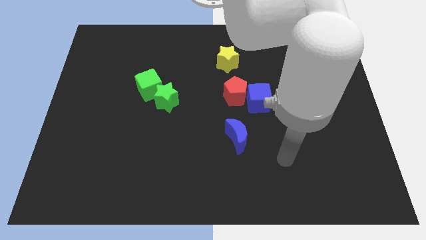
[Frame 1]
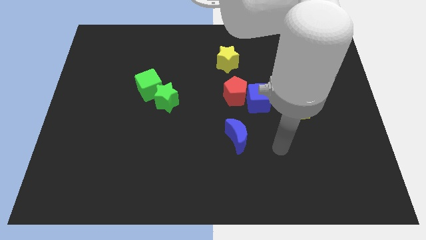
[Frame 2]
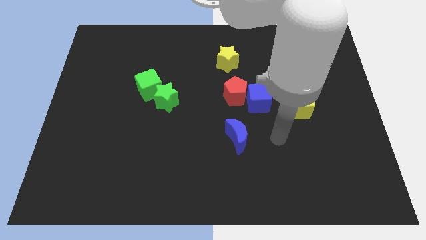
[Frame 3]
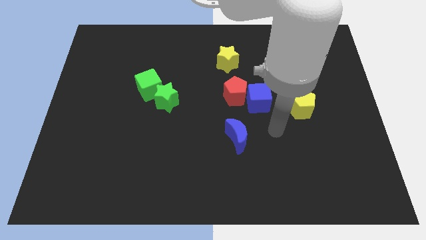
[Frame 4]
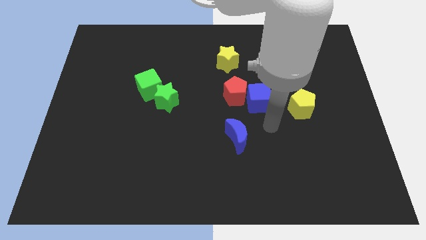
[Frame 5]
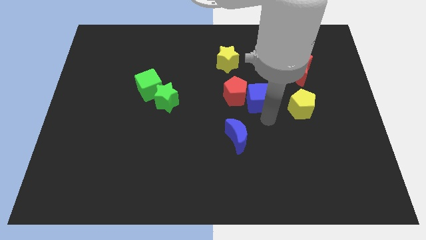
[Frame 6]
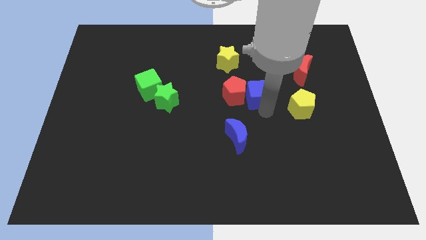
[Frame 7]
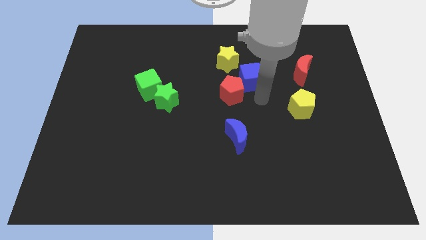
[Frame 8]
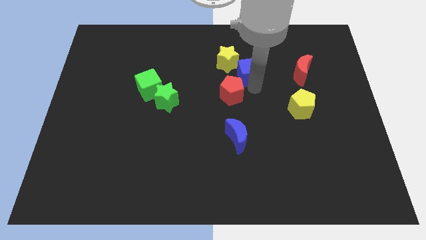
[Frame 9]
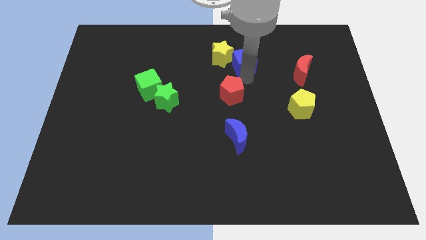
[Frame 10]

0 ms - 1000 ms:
pull the red pentagon apart from the blue cube

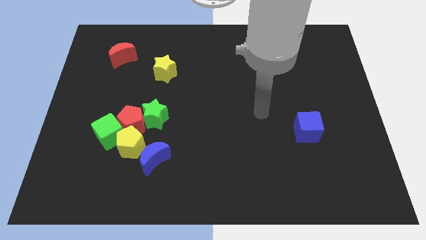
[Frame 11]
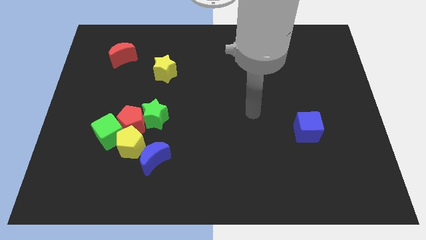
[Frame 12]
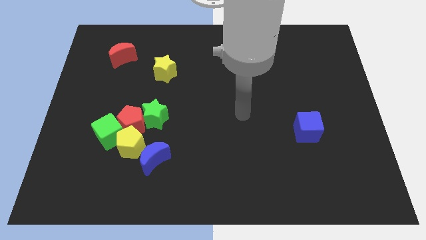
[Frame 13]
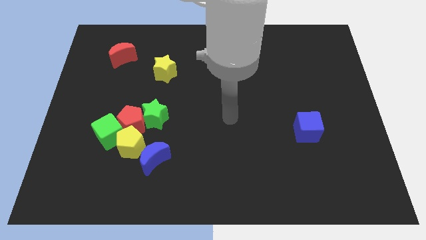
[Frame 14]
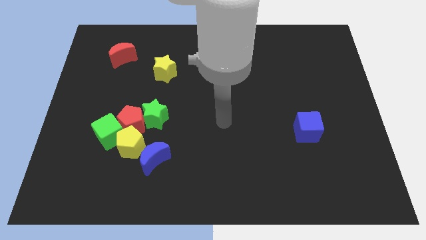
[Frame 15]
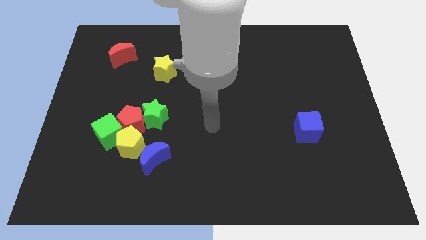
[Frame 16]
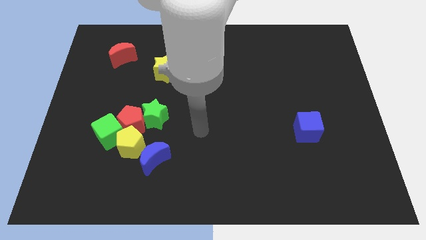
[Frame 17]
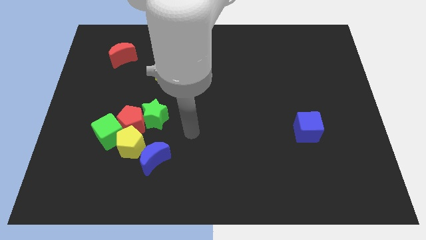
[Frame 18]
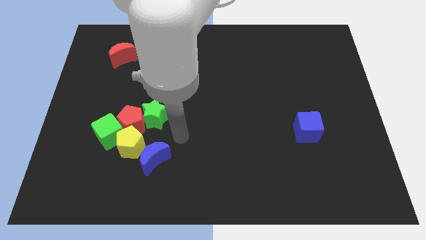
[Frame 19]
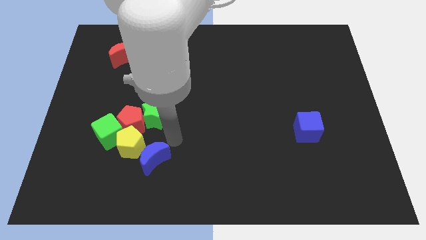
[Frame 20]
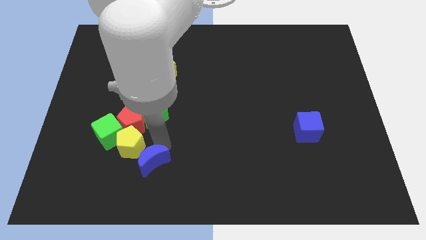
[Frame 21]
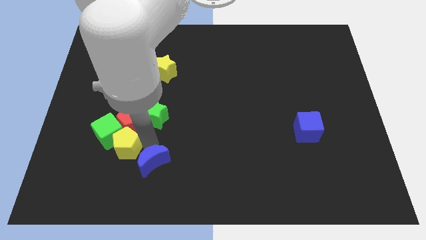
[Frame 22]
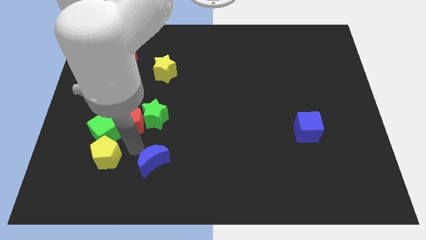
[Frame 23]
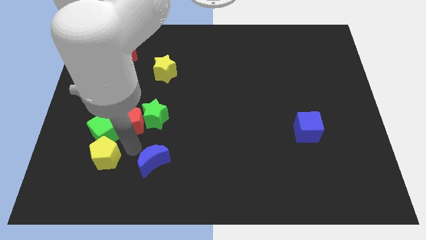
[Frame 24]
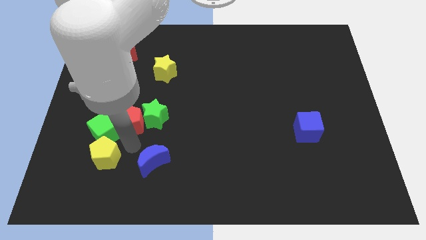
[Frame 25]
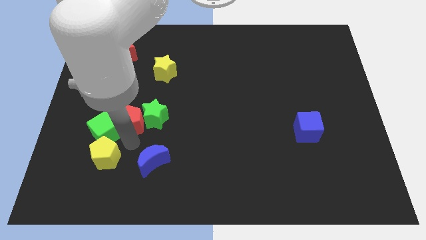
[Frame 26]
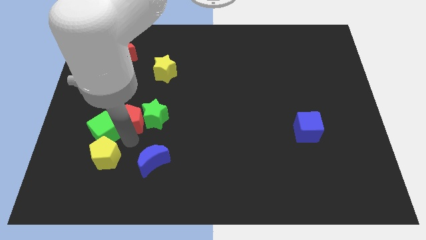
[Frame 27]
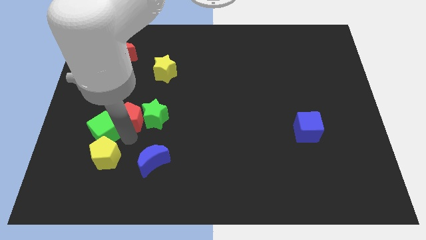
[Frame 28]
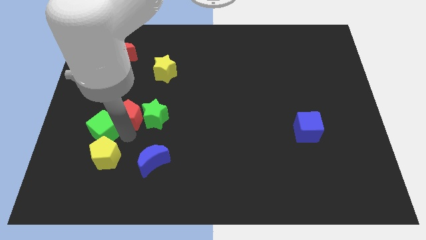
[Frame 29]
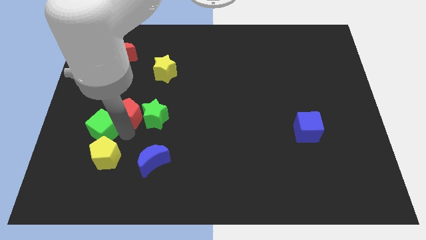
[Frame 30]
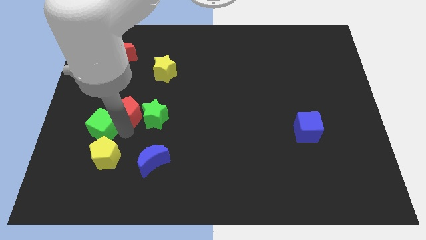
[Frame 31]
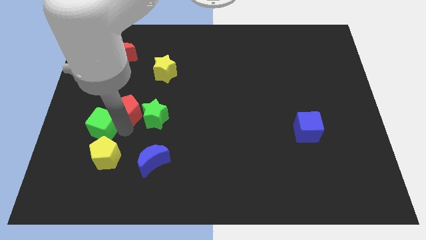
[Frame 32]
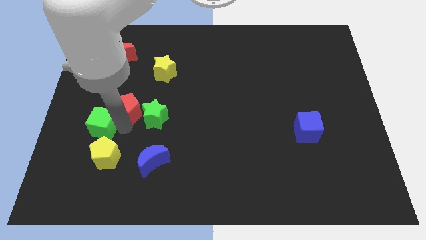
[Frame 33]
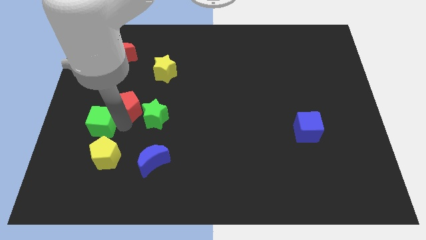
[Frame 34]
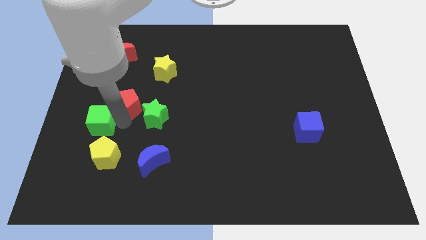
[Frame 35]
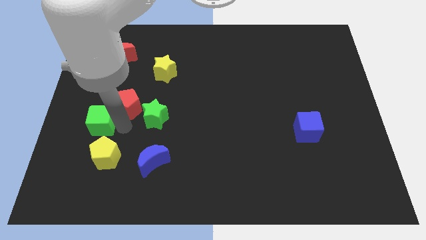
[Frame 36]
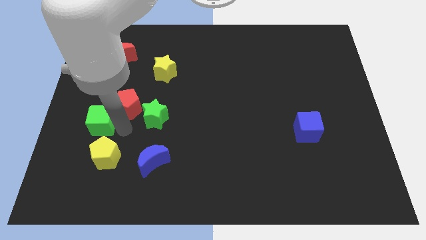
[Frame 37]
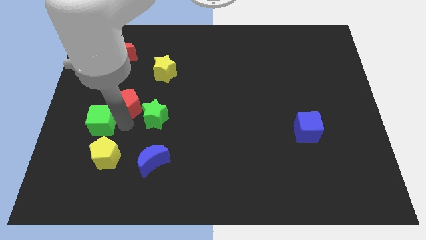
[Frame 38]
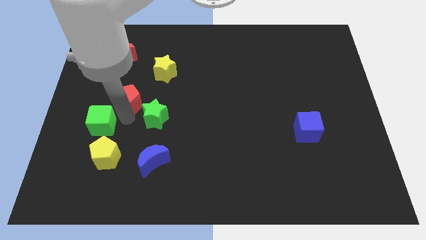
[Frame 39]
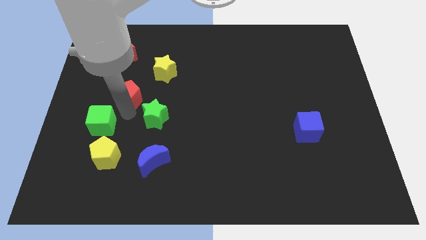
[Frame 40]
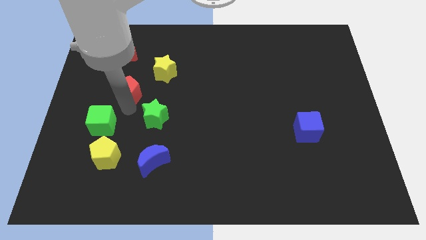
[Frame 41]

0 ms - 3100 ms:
separate the red pentagon from the group of blocks

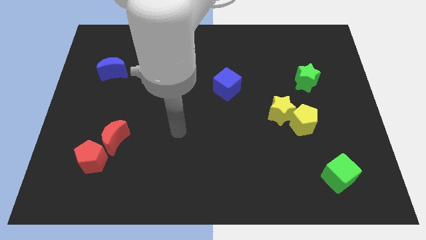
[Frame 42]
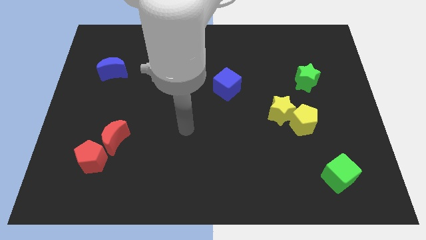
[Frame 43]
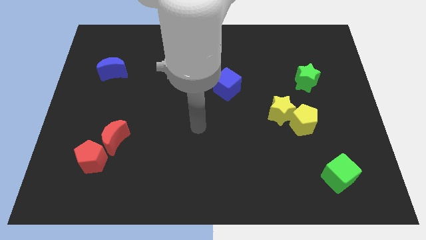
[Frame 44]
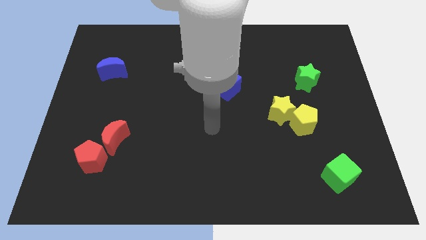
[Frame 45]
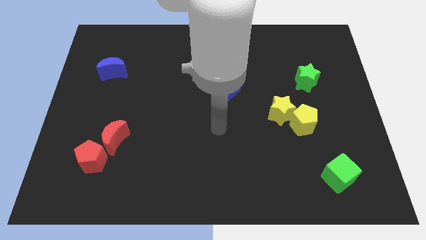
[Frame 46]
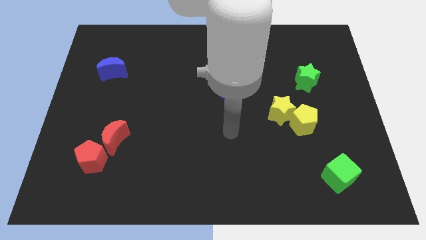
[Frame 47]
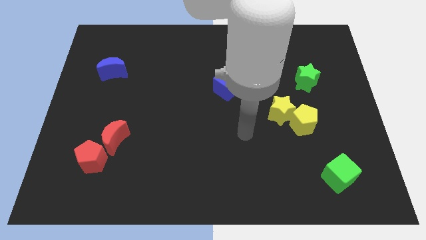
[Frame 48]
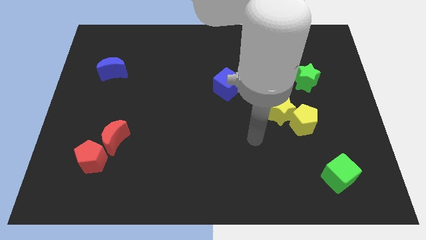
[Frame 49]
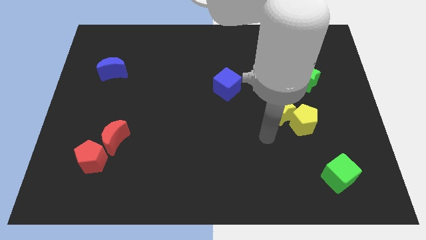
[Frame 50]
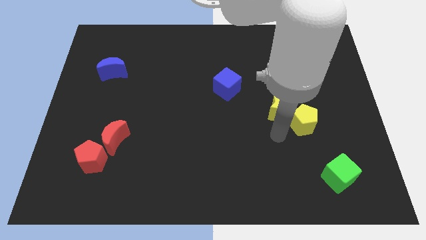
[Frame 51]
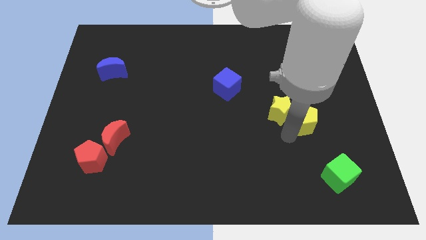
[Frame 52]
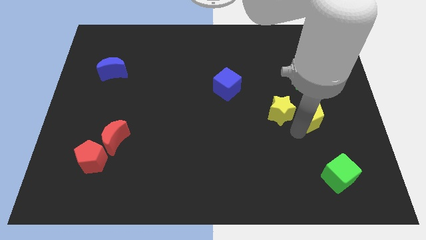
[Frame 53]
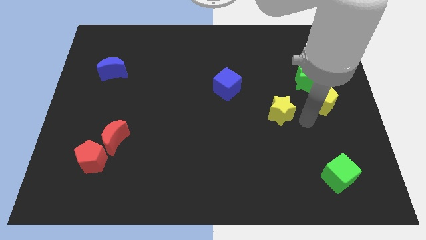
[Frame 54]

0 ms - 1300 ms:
separate the yellow star from the yellow pentagon

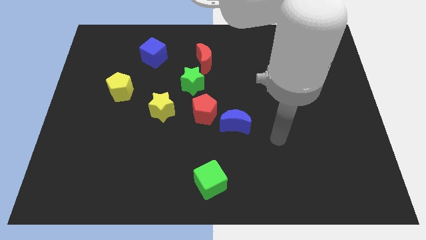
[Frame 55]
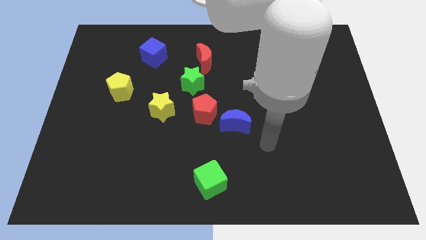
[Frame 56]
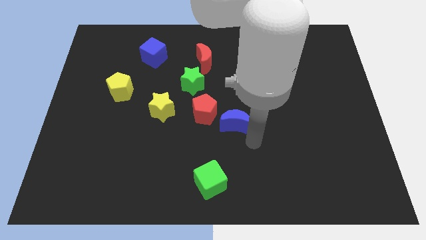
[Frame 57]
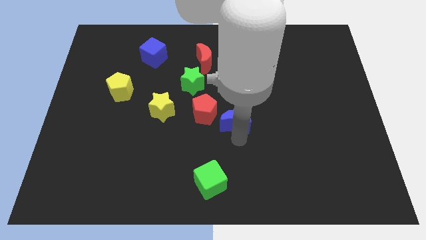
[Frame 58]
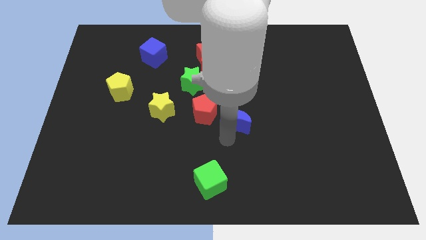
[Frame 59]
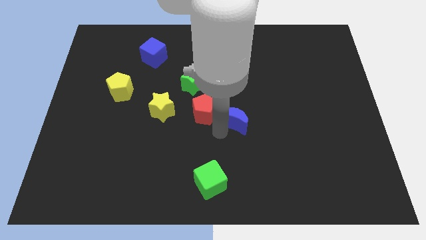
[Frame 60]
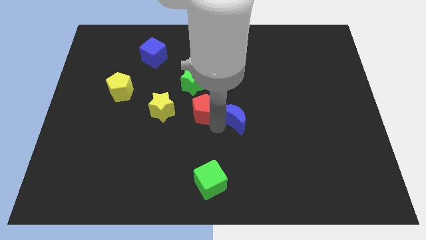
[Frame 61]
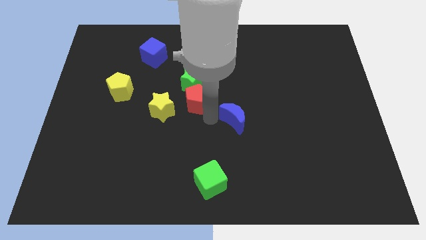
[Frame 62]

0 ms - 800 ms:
separate the blue moon from the red pentagon

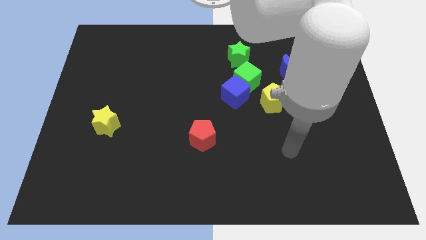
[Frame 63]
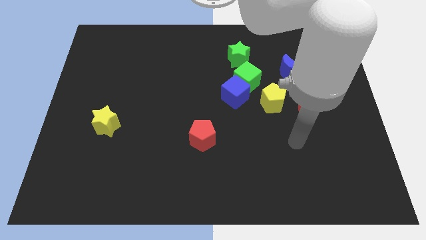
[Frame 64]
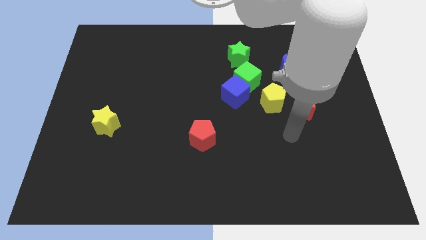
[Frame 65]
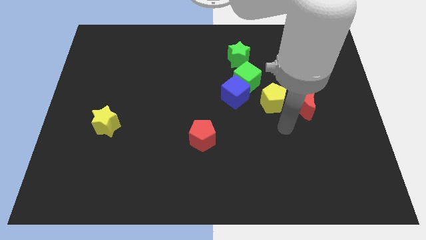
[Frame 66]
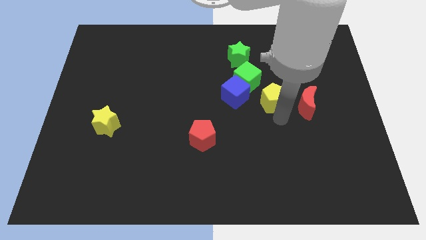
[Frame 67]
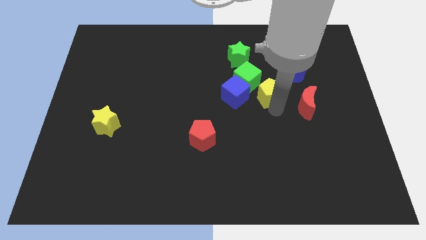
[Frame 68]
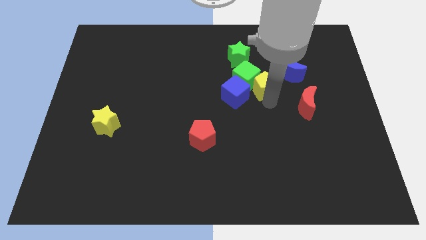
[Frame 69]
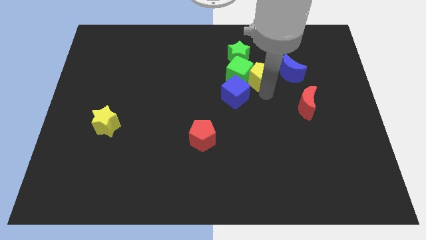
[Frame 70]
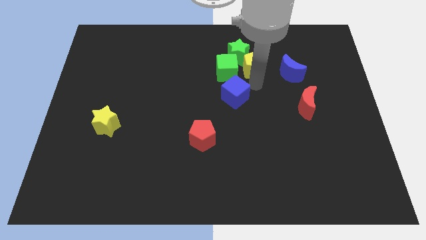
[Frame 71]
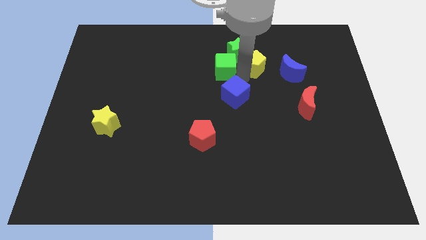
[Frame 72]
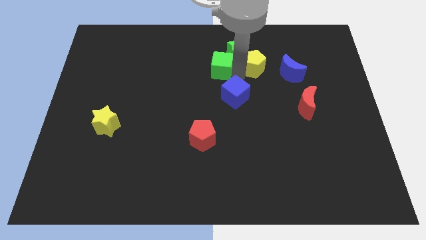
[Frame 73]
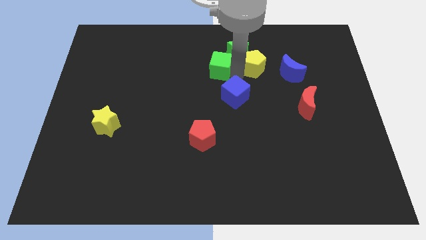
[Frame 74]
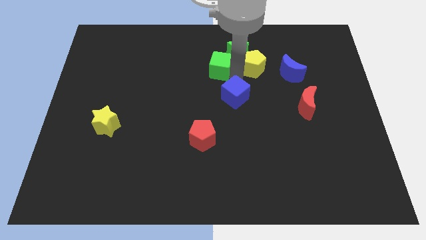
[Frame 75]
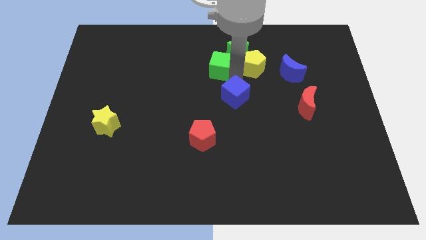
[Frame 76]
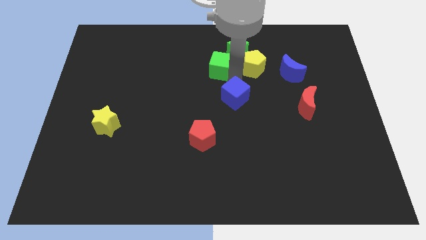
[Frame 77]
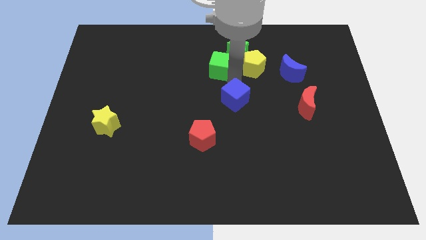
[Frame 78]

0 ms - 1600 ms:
move the blue cube away from the green cube and yellow pentagon

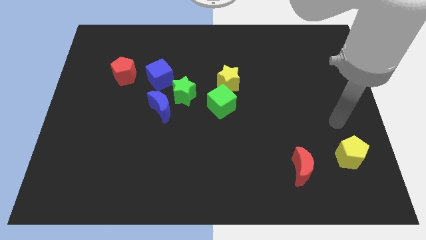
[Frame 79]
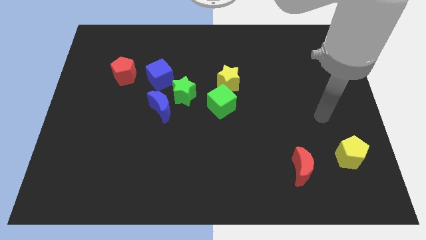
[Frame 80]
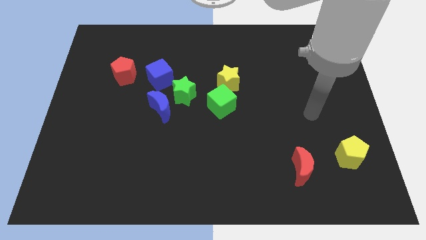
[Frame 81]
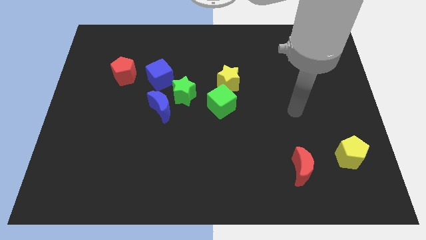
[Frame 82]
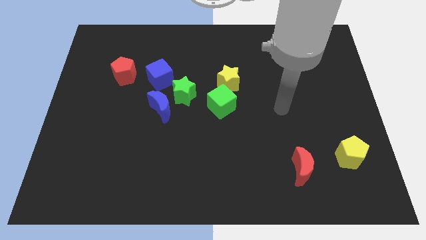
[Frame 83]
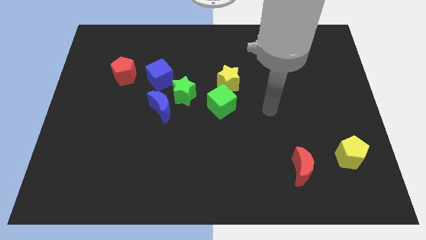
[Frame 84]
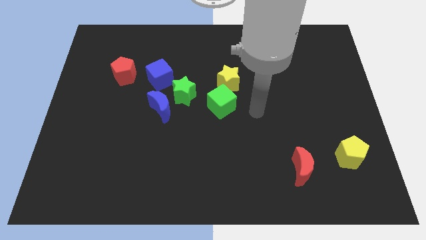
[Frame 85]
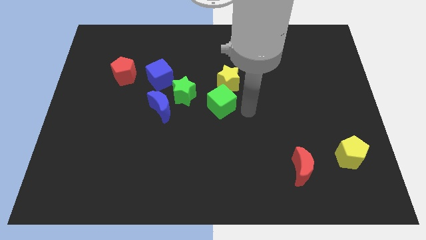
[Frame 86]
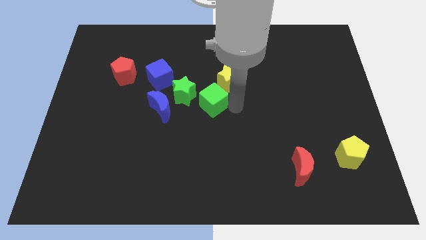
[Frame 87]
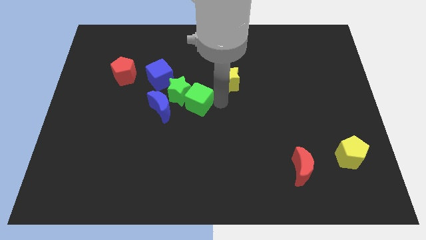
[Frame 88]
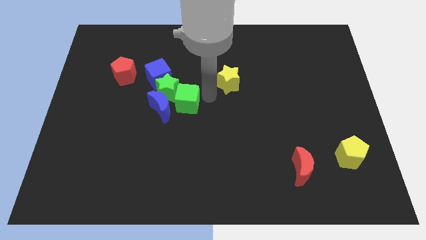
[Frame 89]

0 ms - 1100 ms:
pull the yellow star apart from the green cube

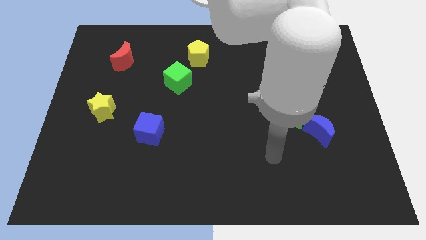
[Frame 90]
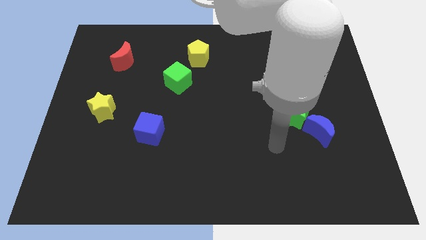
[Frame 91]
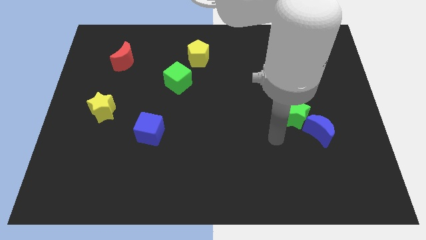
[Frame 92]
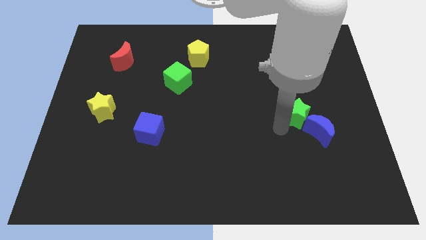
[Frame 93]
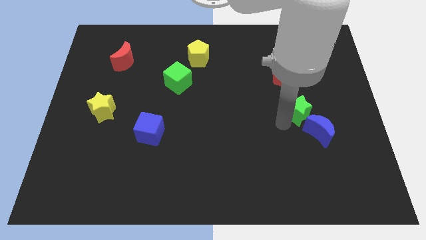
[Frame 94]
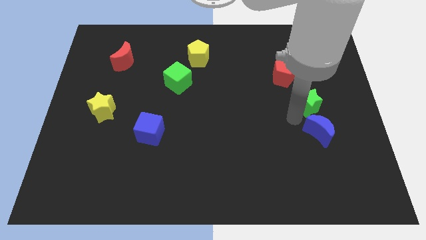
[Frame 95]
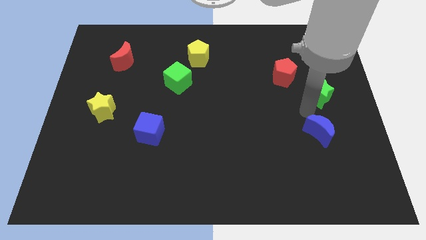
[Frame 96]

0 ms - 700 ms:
move the blue moon away from the green star
